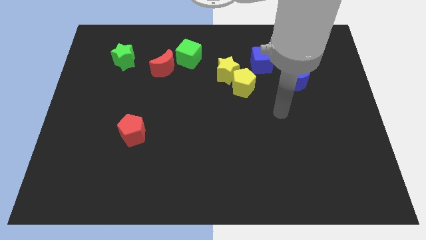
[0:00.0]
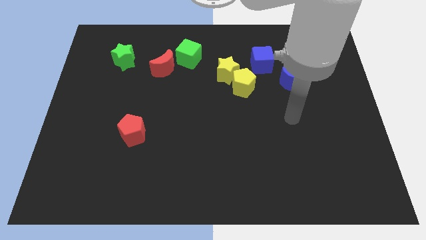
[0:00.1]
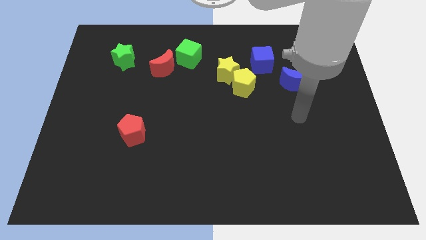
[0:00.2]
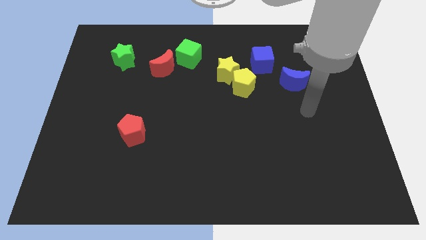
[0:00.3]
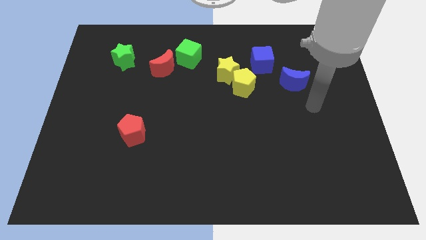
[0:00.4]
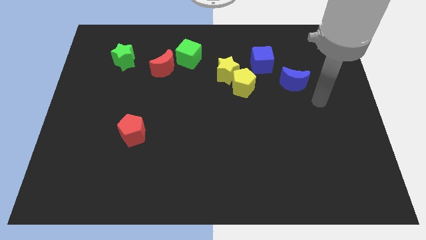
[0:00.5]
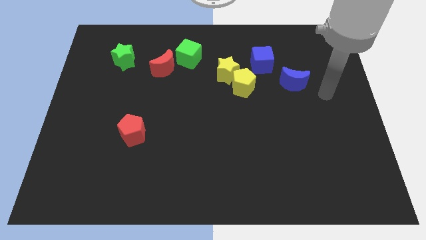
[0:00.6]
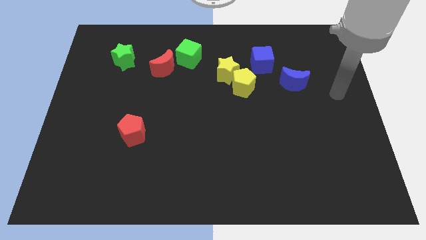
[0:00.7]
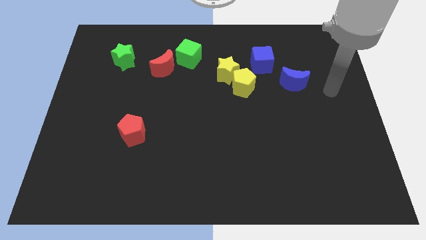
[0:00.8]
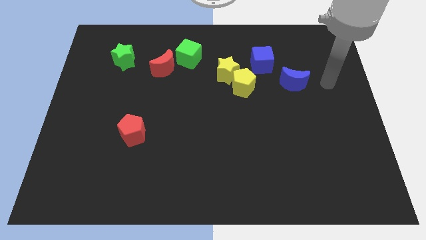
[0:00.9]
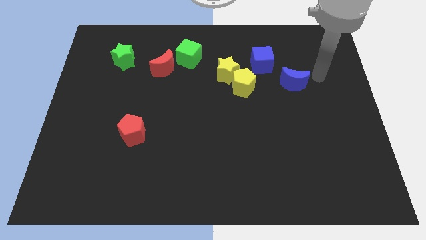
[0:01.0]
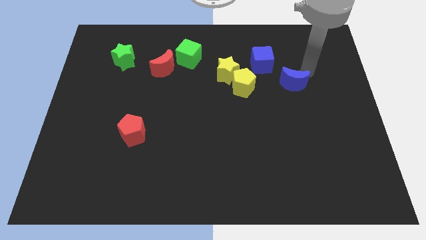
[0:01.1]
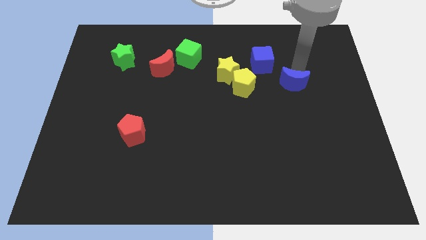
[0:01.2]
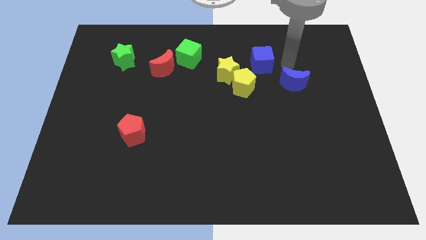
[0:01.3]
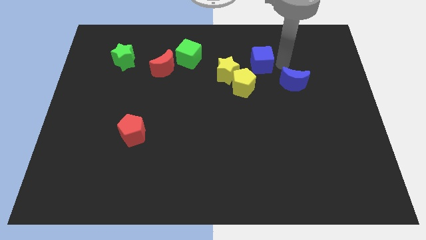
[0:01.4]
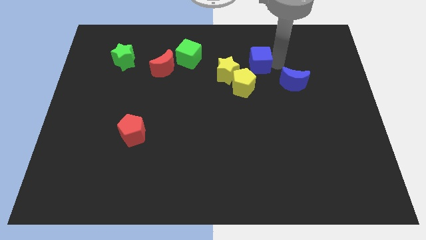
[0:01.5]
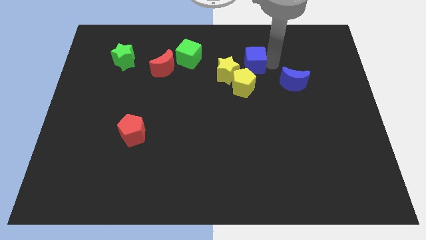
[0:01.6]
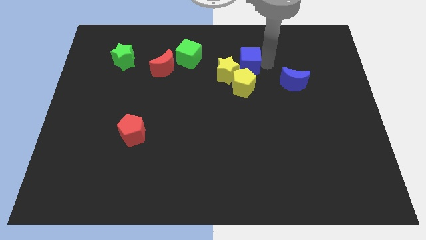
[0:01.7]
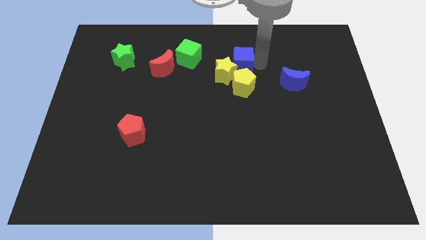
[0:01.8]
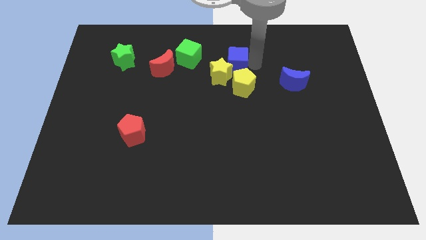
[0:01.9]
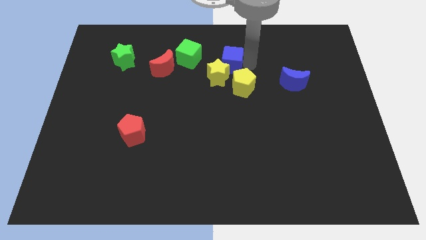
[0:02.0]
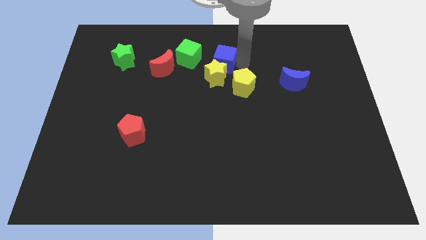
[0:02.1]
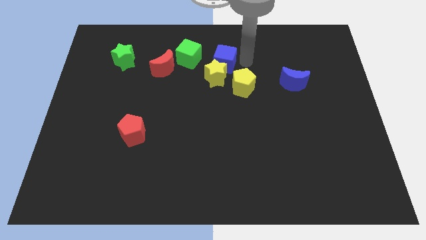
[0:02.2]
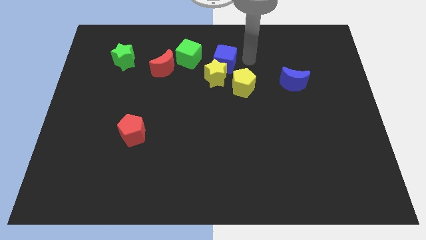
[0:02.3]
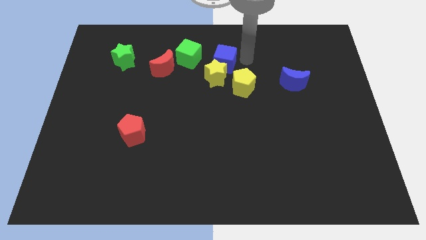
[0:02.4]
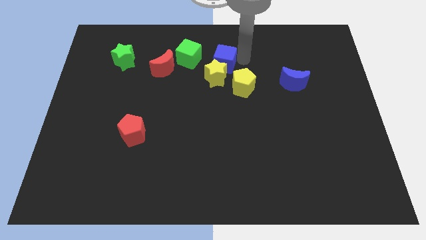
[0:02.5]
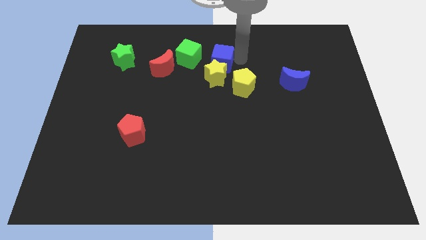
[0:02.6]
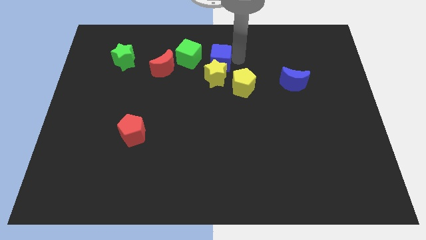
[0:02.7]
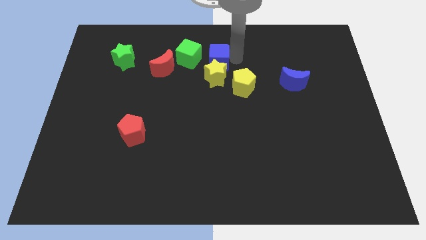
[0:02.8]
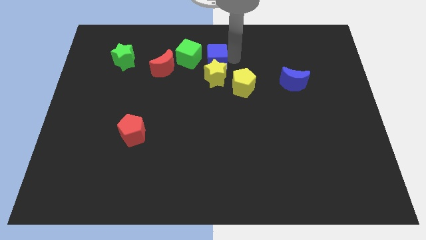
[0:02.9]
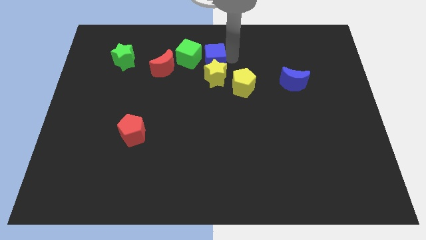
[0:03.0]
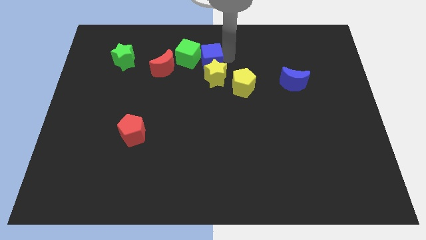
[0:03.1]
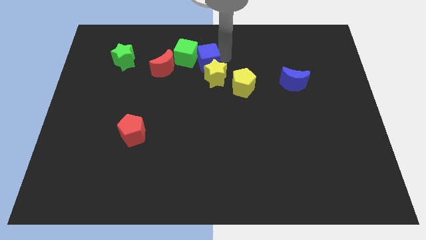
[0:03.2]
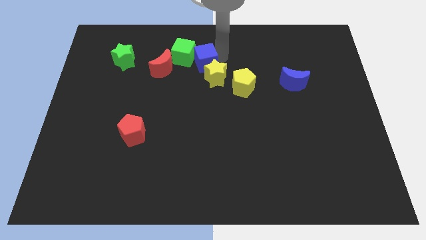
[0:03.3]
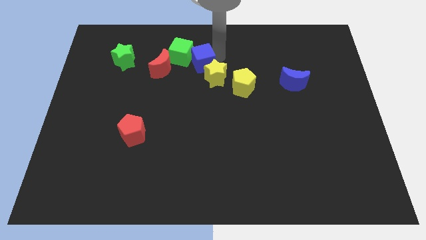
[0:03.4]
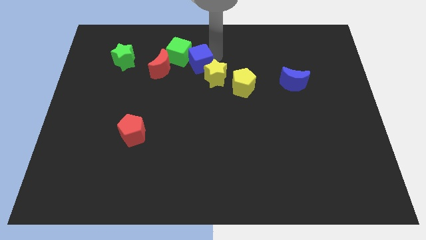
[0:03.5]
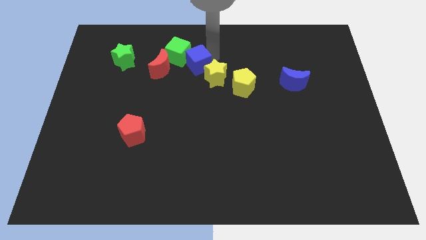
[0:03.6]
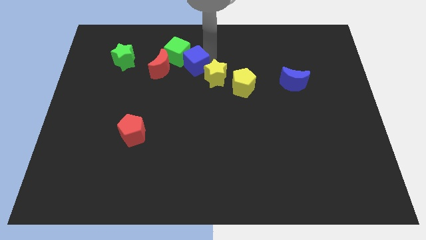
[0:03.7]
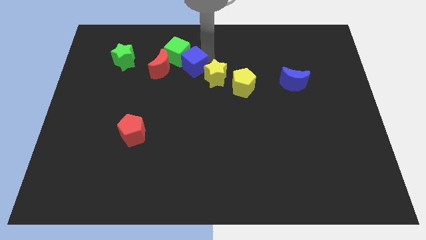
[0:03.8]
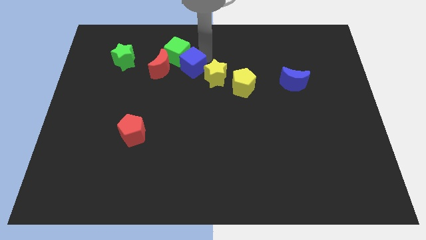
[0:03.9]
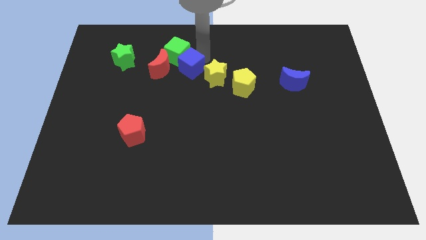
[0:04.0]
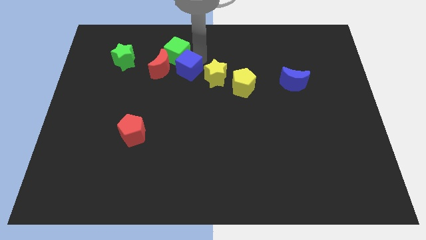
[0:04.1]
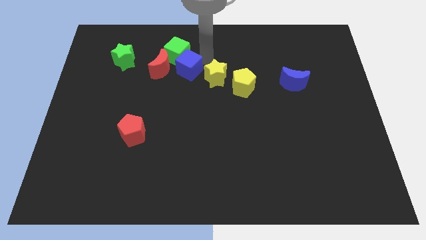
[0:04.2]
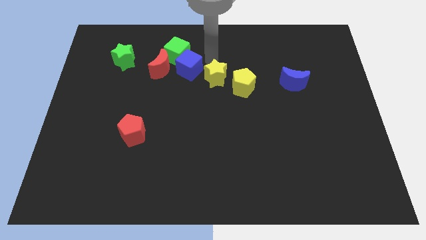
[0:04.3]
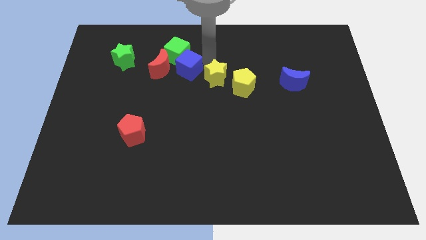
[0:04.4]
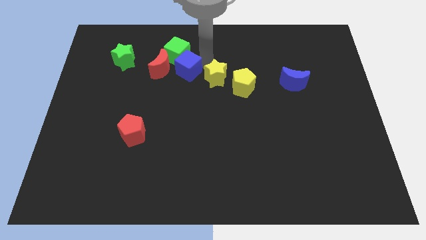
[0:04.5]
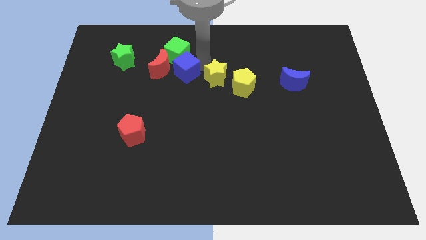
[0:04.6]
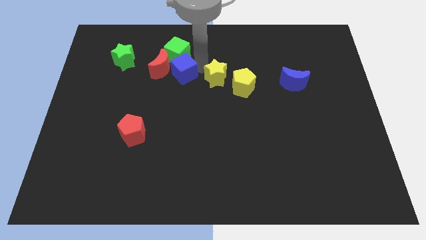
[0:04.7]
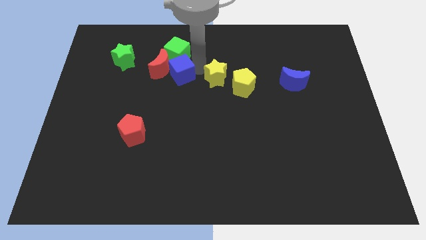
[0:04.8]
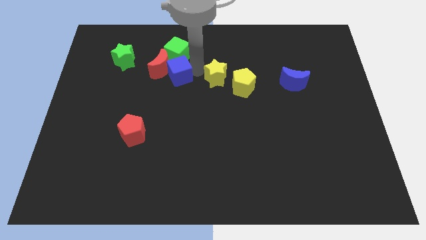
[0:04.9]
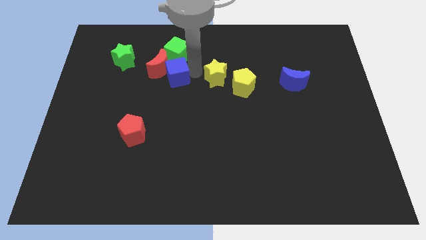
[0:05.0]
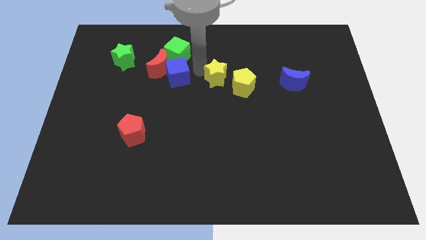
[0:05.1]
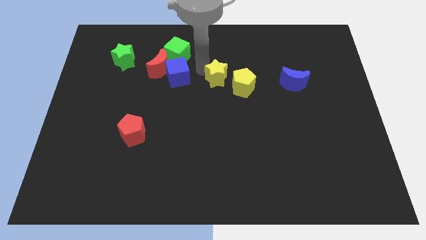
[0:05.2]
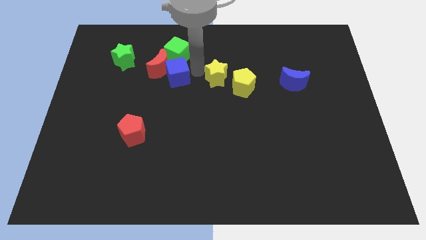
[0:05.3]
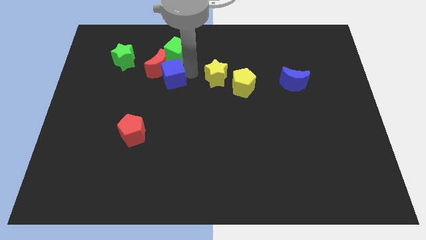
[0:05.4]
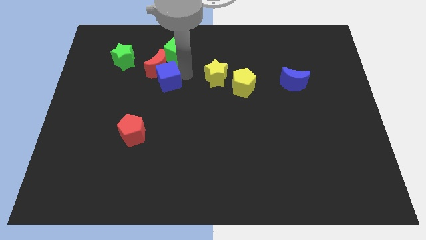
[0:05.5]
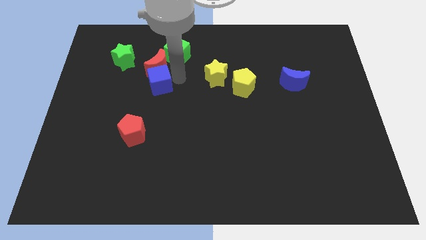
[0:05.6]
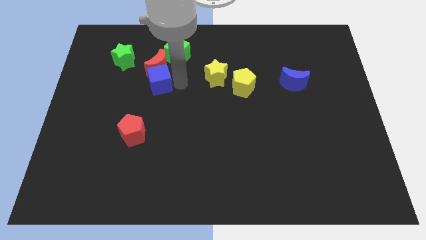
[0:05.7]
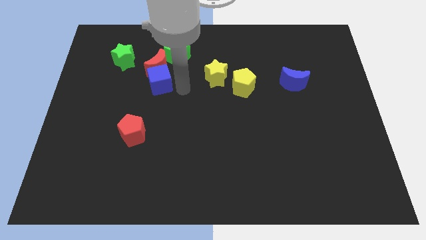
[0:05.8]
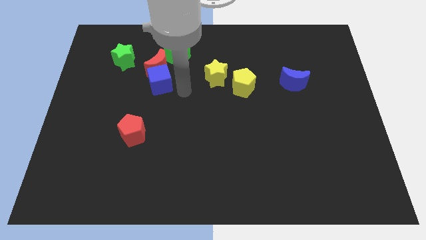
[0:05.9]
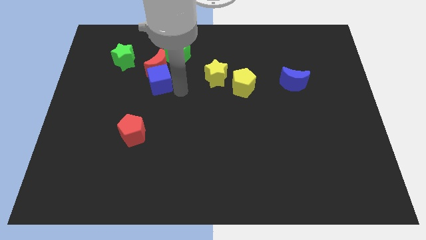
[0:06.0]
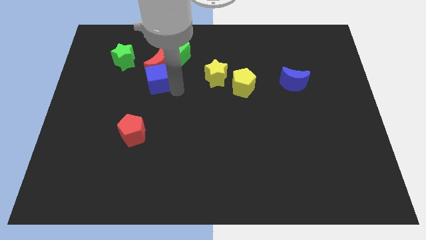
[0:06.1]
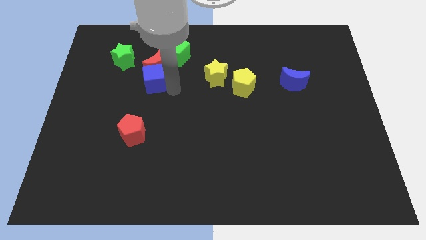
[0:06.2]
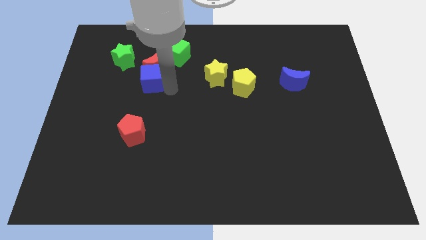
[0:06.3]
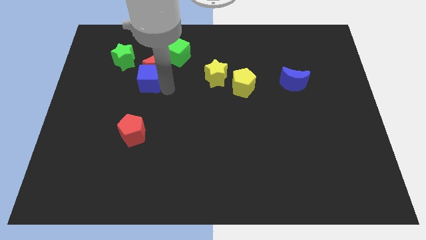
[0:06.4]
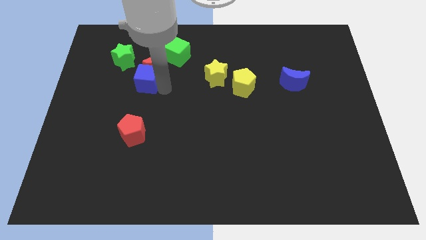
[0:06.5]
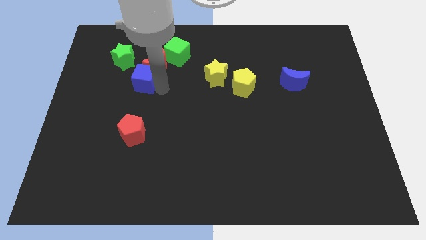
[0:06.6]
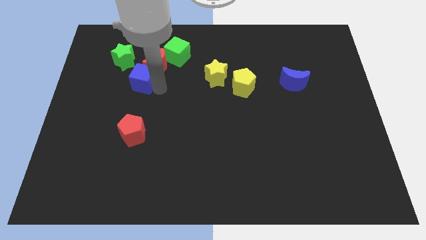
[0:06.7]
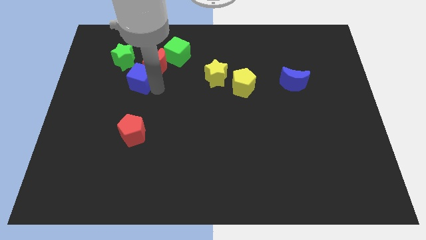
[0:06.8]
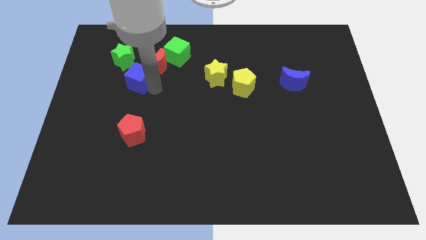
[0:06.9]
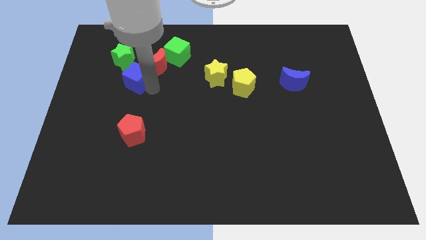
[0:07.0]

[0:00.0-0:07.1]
slide the blue cube just left of the red moon
